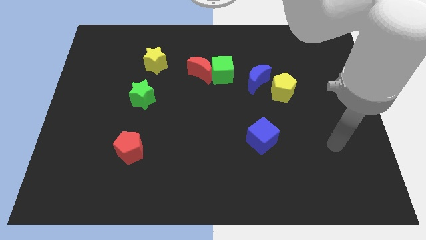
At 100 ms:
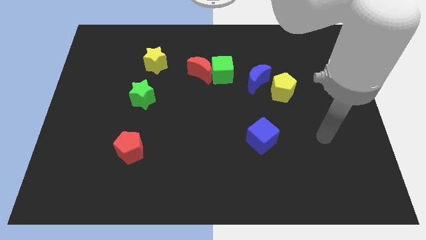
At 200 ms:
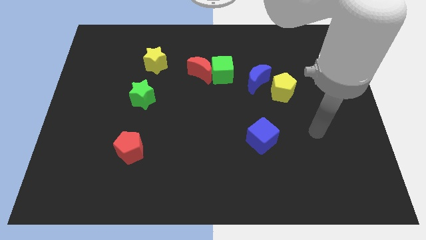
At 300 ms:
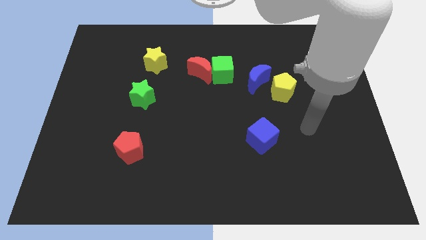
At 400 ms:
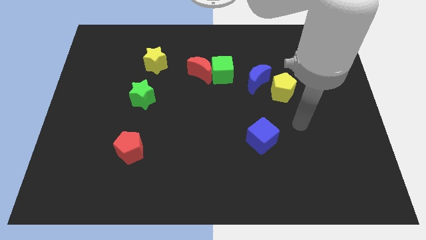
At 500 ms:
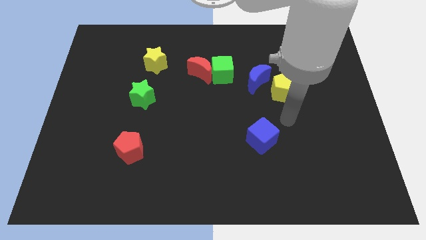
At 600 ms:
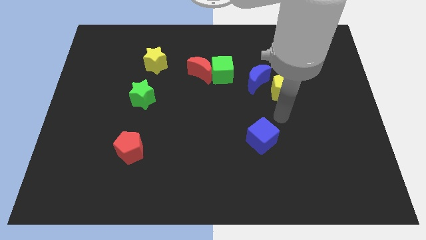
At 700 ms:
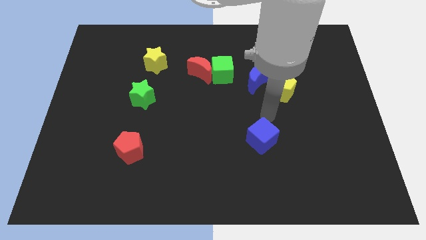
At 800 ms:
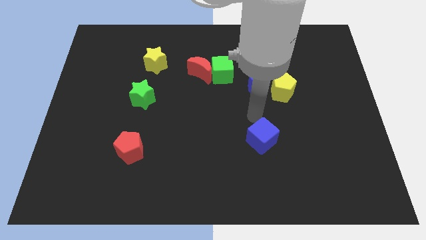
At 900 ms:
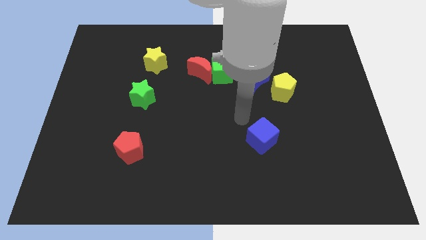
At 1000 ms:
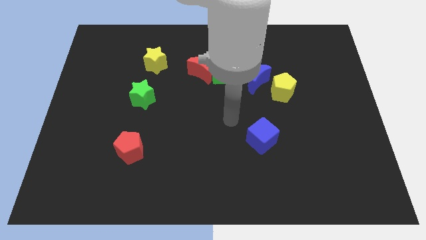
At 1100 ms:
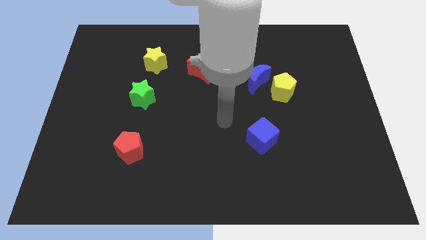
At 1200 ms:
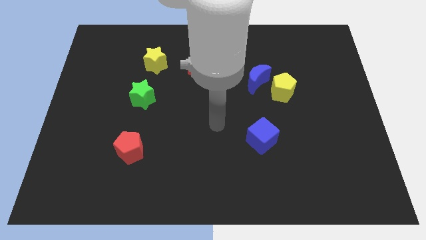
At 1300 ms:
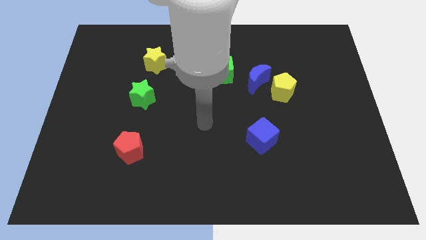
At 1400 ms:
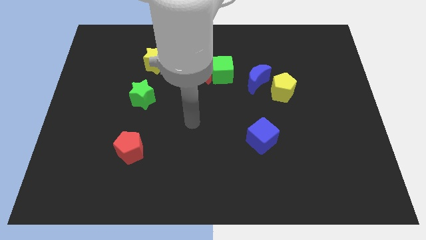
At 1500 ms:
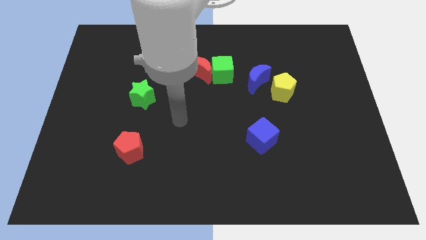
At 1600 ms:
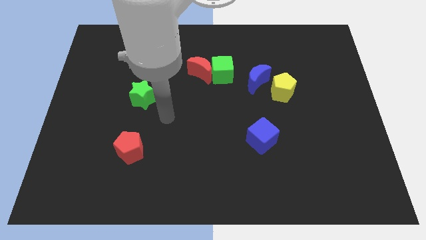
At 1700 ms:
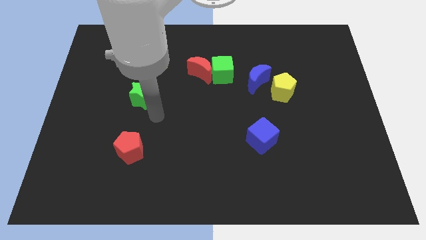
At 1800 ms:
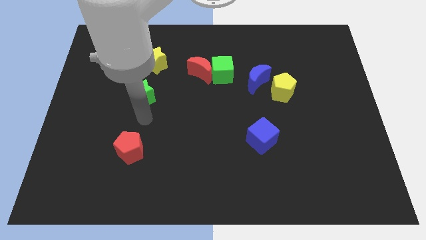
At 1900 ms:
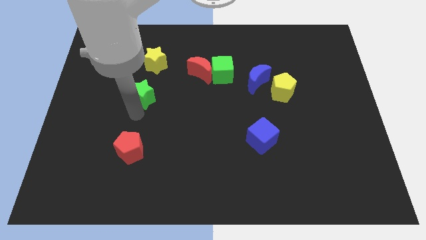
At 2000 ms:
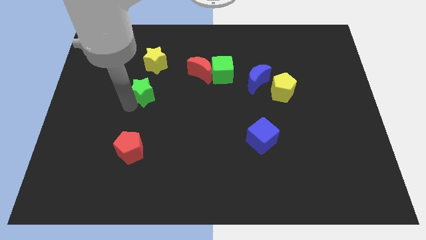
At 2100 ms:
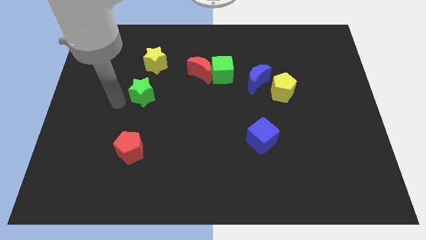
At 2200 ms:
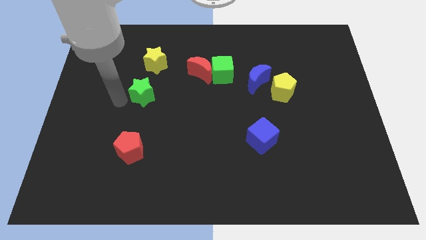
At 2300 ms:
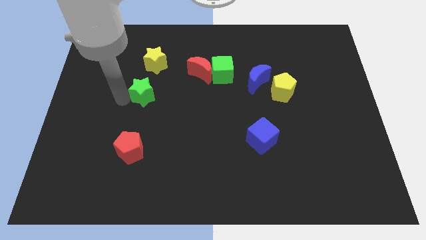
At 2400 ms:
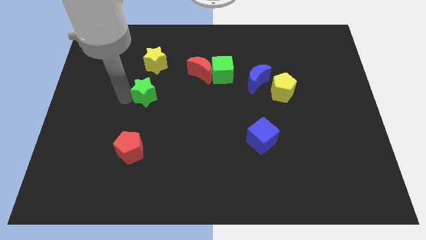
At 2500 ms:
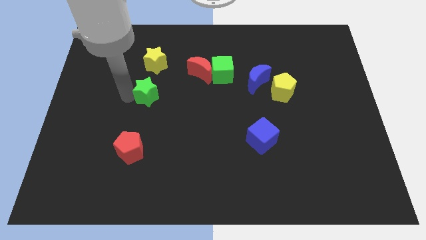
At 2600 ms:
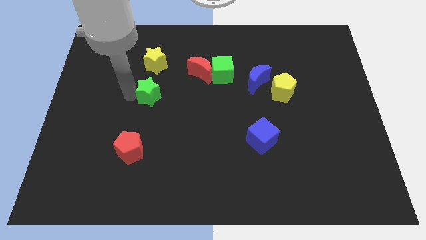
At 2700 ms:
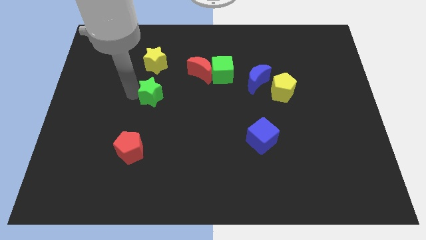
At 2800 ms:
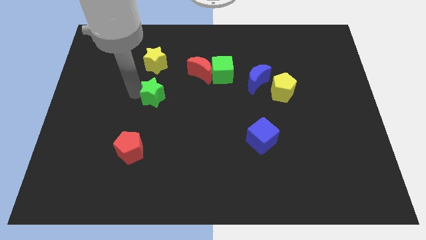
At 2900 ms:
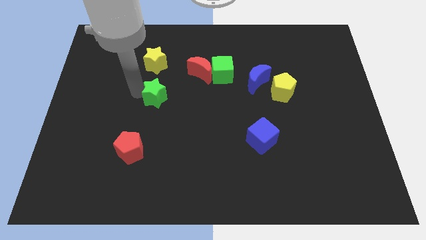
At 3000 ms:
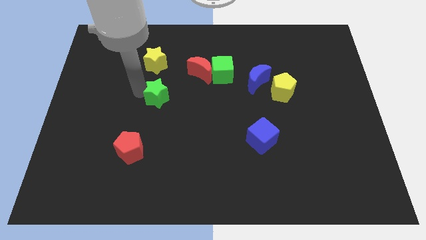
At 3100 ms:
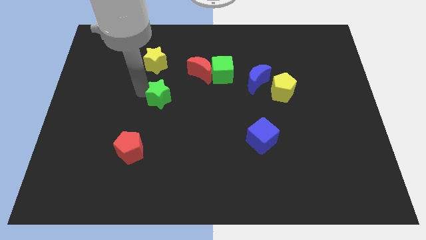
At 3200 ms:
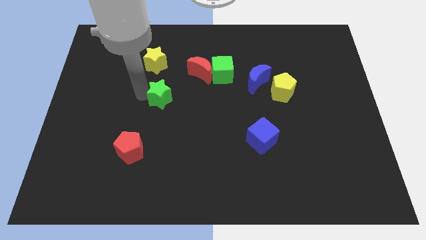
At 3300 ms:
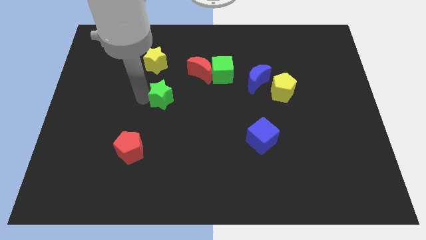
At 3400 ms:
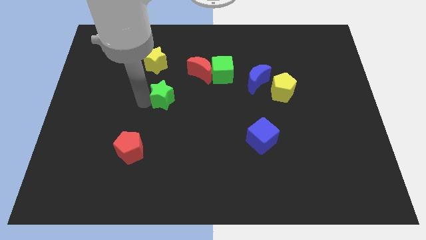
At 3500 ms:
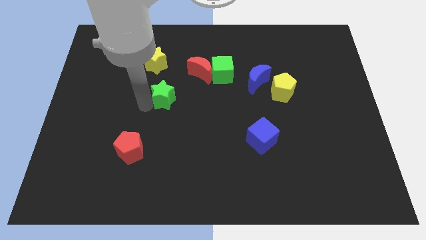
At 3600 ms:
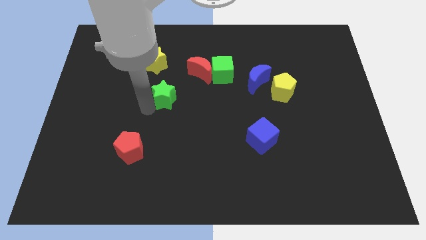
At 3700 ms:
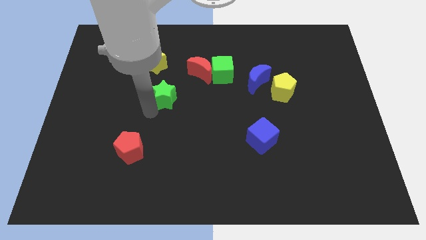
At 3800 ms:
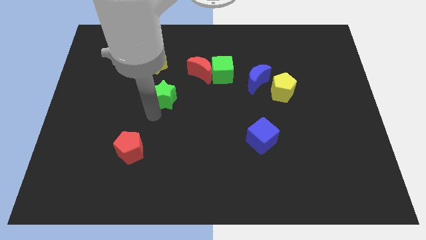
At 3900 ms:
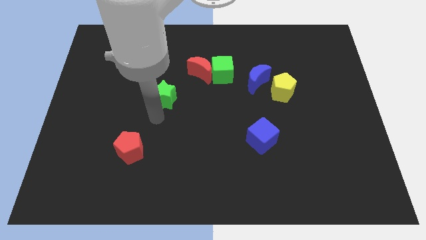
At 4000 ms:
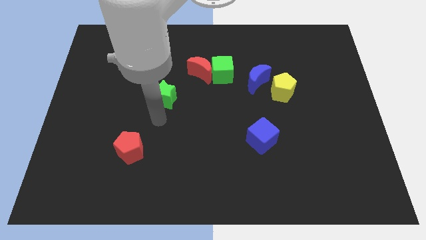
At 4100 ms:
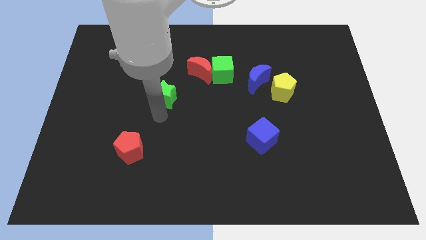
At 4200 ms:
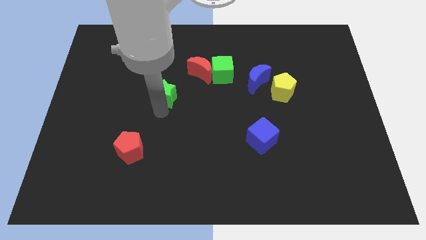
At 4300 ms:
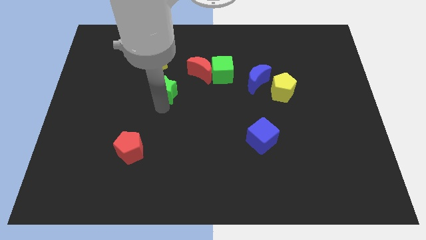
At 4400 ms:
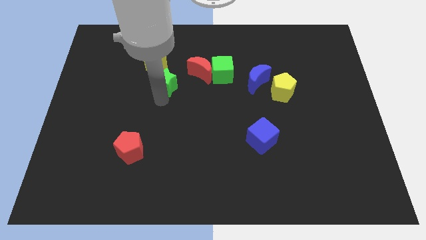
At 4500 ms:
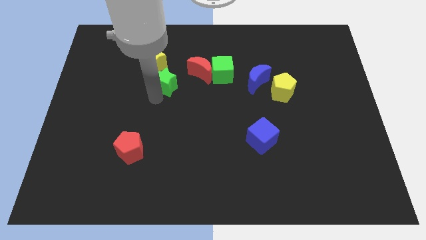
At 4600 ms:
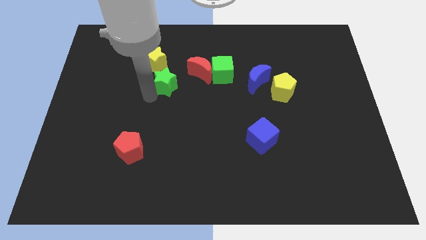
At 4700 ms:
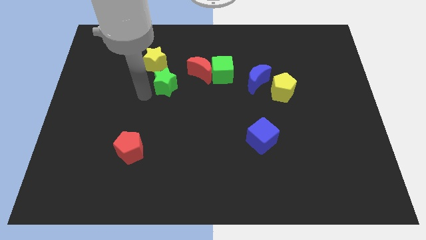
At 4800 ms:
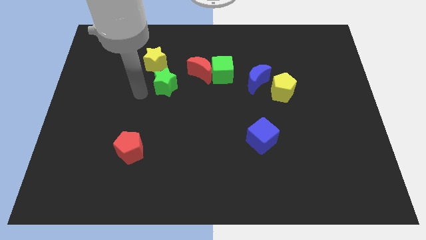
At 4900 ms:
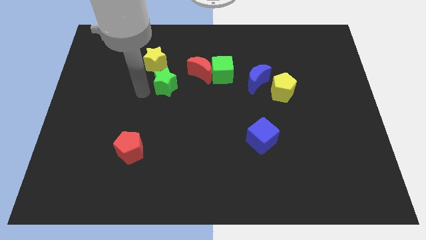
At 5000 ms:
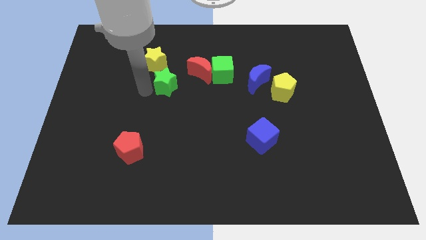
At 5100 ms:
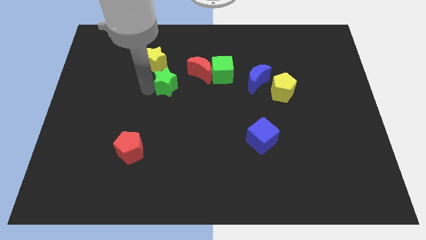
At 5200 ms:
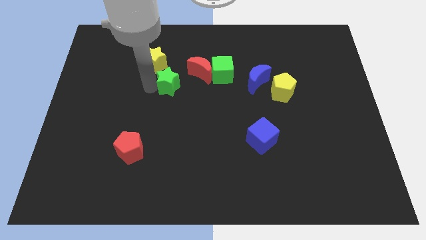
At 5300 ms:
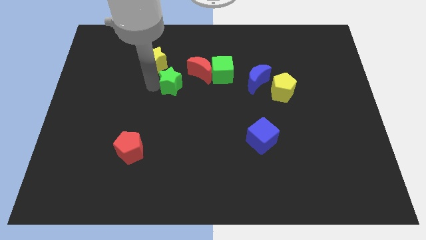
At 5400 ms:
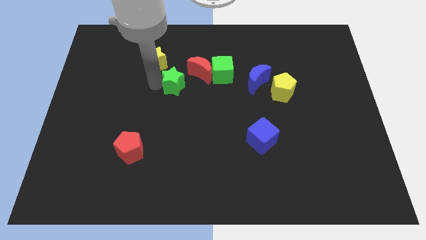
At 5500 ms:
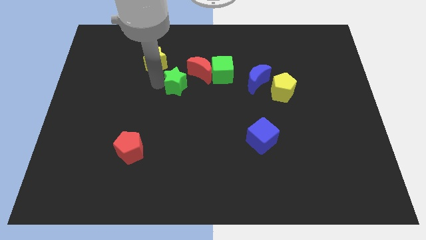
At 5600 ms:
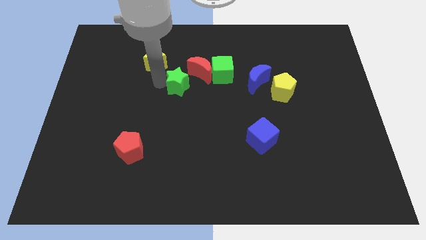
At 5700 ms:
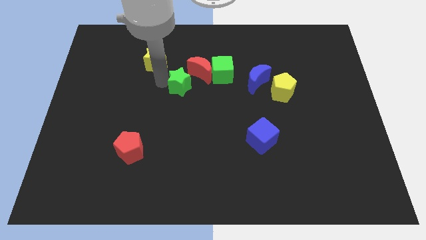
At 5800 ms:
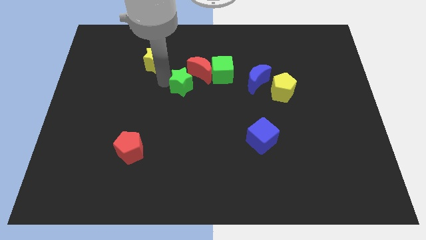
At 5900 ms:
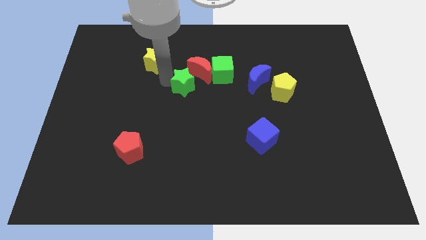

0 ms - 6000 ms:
move the green star close to the red moon

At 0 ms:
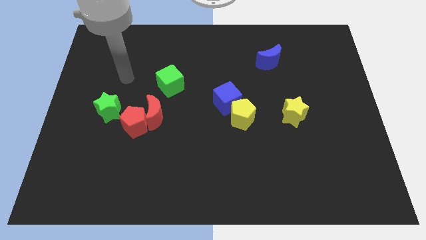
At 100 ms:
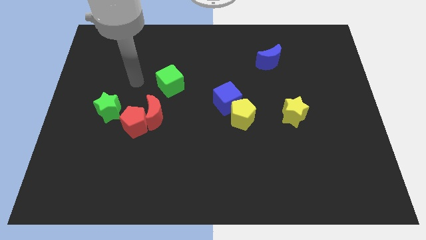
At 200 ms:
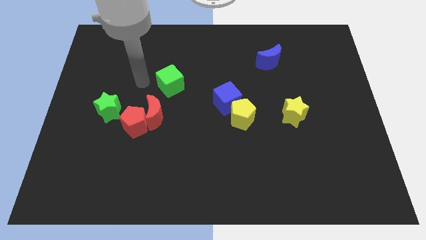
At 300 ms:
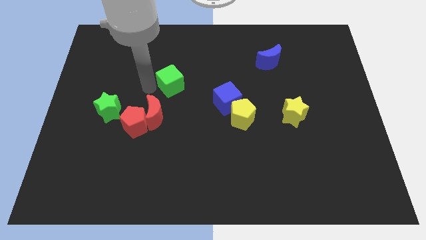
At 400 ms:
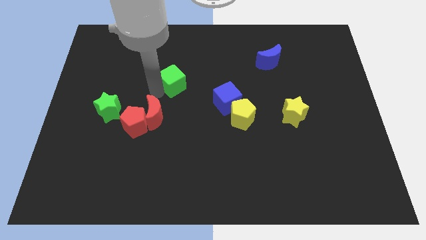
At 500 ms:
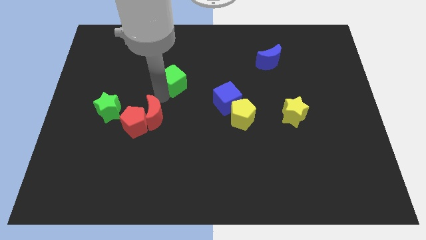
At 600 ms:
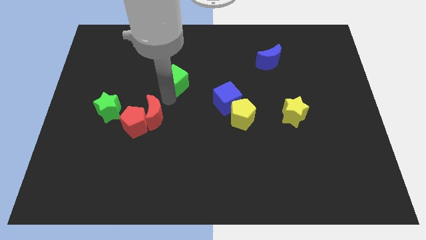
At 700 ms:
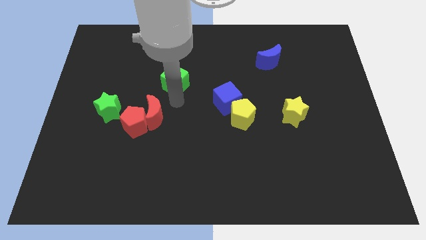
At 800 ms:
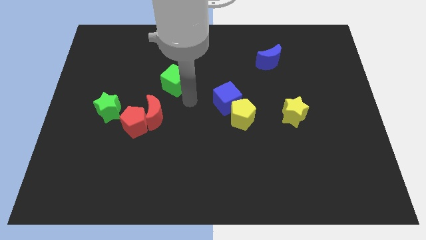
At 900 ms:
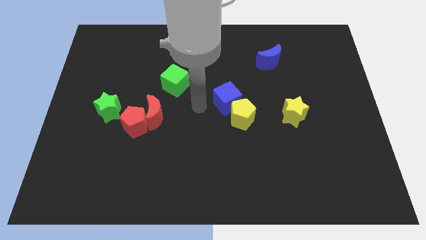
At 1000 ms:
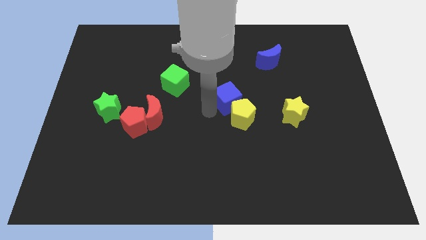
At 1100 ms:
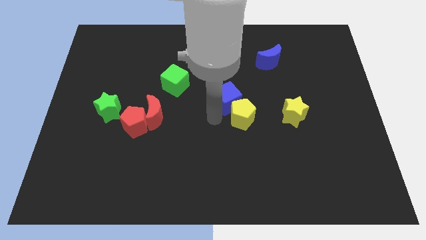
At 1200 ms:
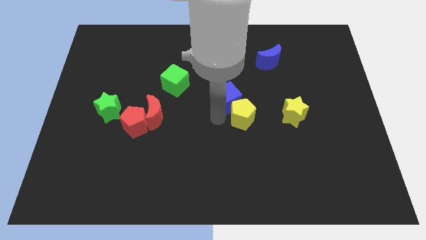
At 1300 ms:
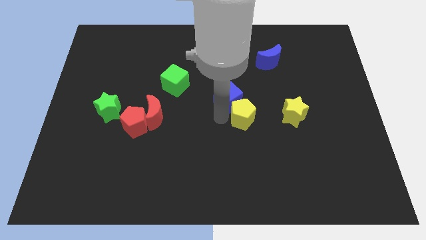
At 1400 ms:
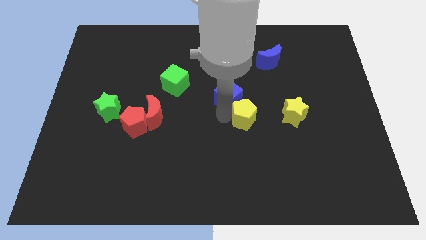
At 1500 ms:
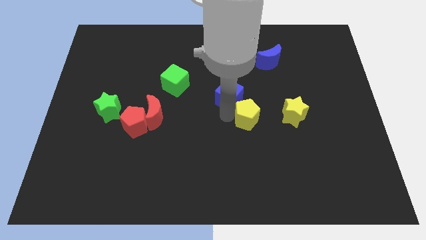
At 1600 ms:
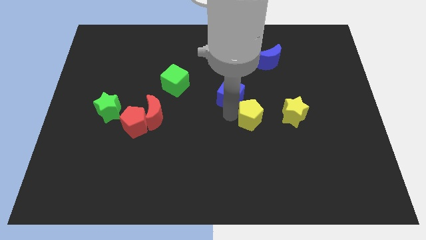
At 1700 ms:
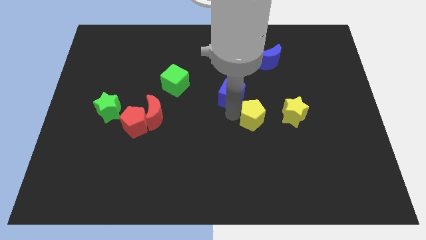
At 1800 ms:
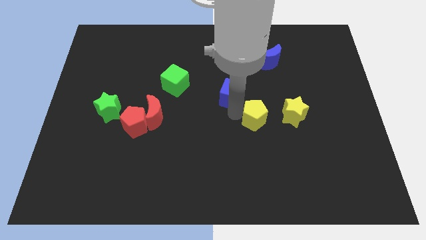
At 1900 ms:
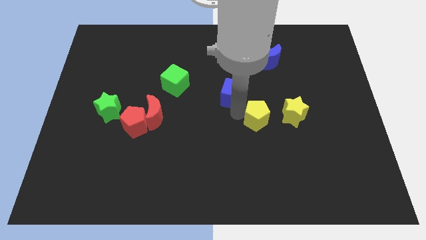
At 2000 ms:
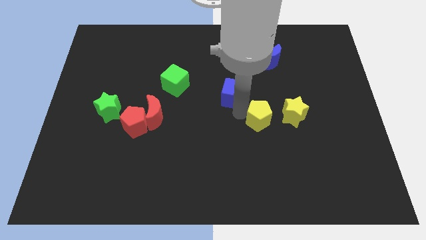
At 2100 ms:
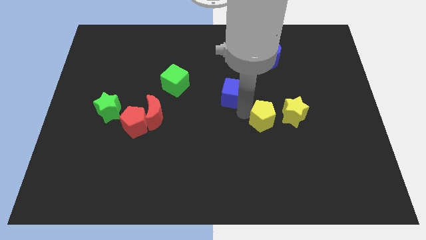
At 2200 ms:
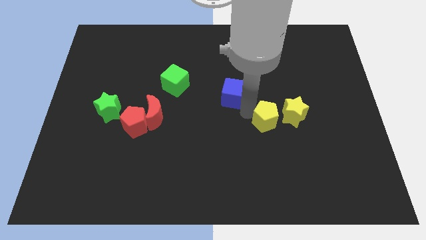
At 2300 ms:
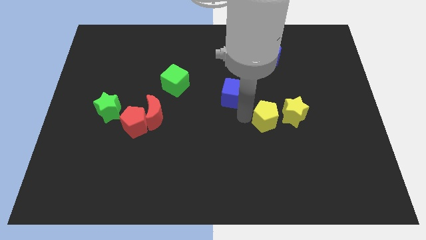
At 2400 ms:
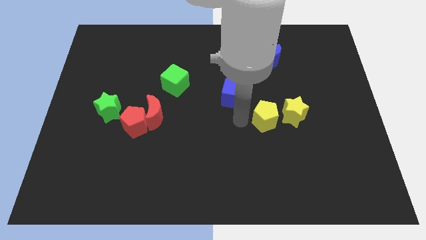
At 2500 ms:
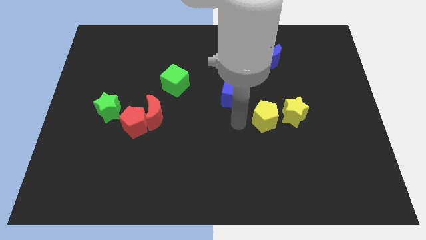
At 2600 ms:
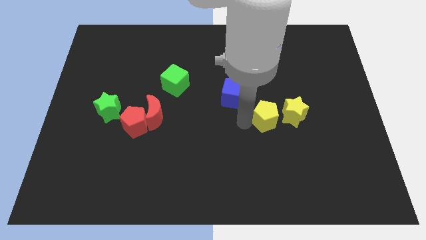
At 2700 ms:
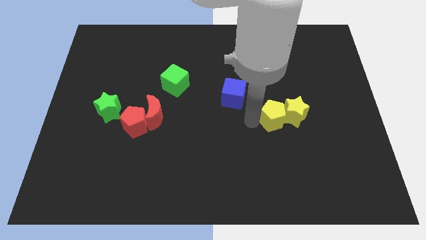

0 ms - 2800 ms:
push the yellow pentagon towards the yellow star
